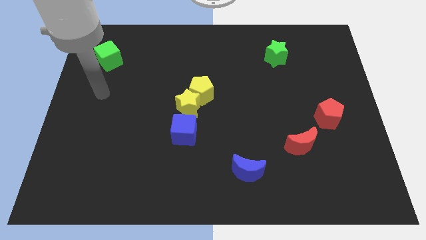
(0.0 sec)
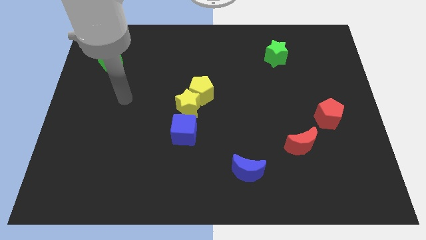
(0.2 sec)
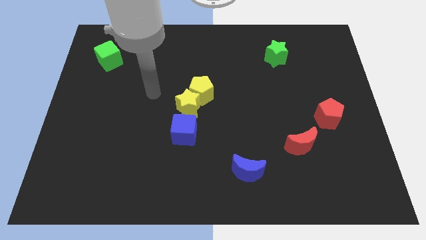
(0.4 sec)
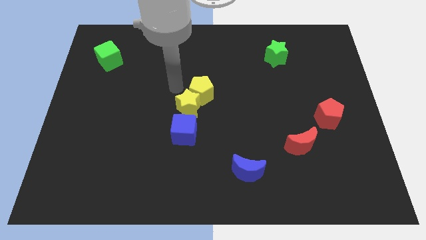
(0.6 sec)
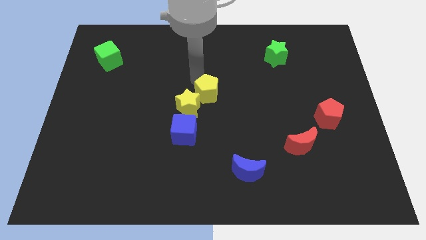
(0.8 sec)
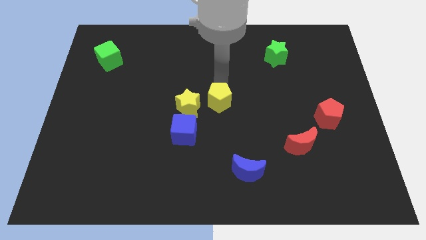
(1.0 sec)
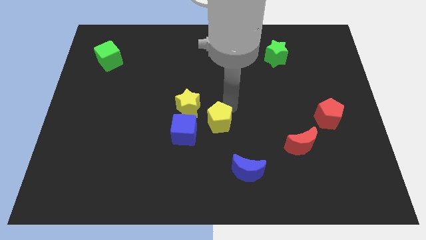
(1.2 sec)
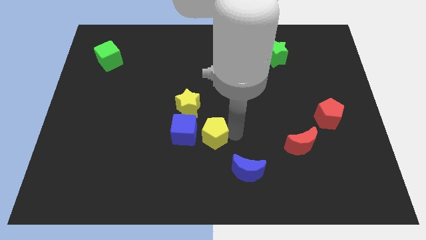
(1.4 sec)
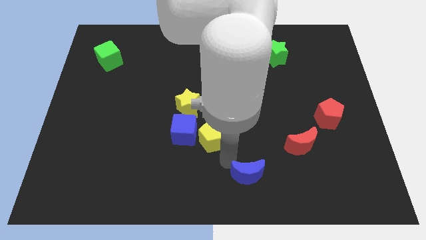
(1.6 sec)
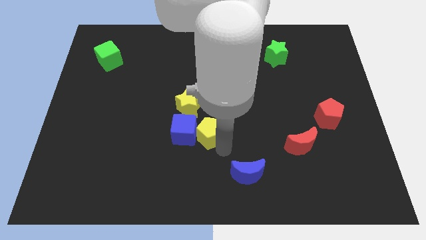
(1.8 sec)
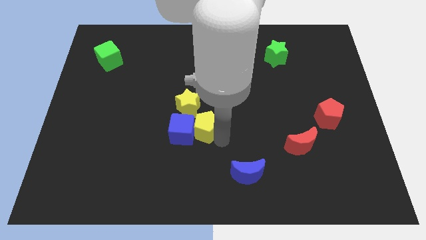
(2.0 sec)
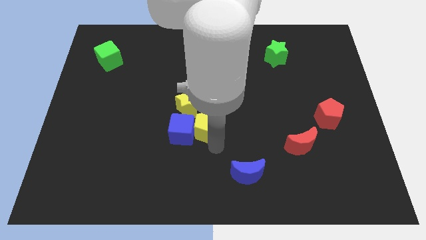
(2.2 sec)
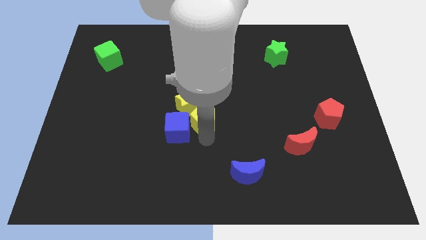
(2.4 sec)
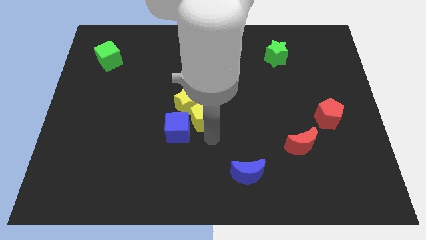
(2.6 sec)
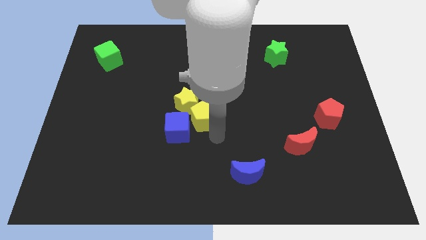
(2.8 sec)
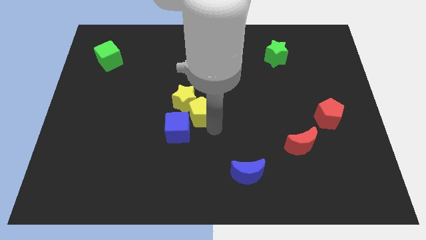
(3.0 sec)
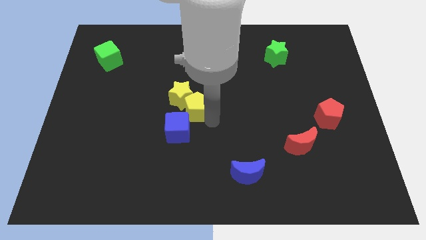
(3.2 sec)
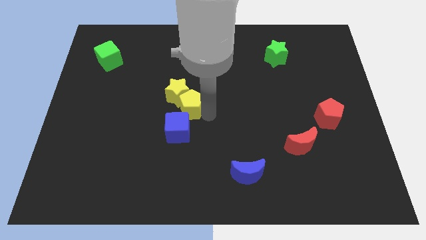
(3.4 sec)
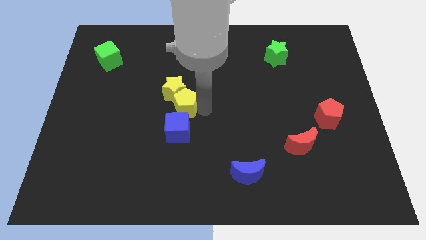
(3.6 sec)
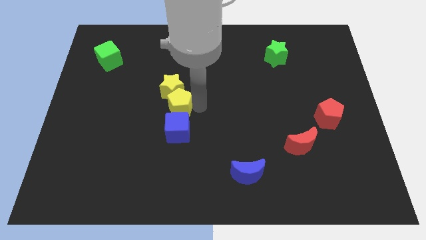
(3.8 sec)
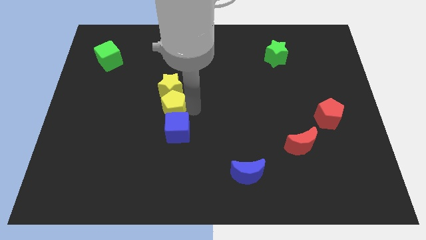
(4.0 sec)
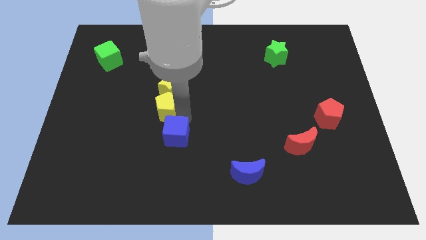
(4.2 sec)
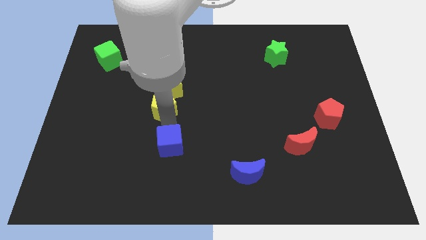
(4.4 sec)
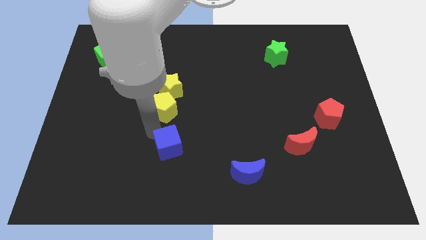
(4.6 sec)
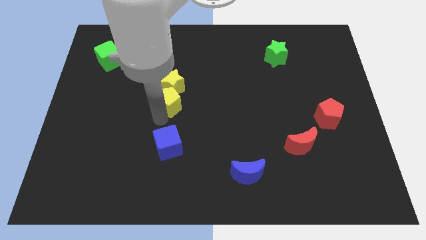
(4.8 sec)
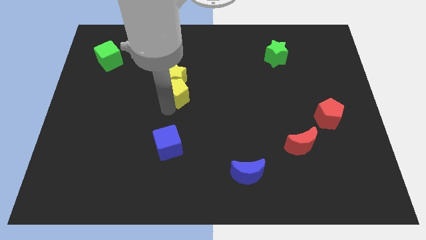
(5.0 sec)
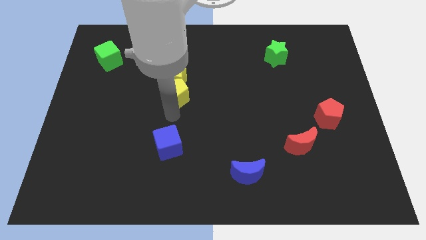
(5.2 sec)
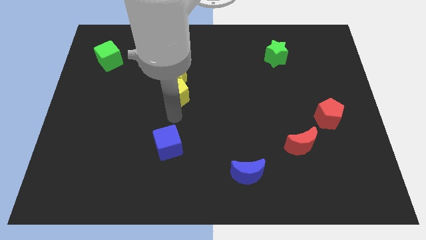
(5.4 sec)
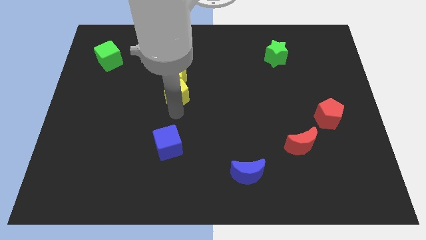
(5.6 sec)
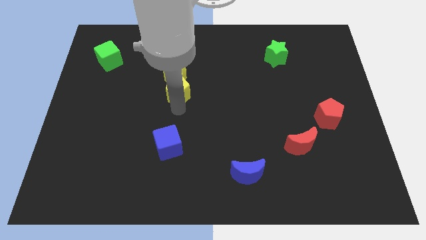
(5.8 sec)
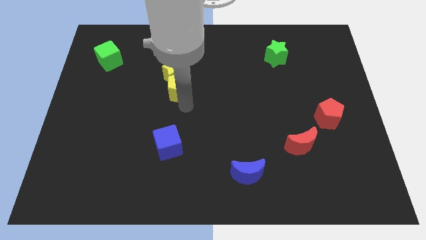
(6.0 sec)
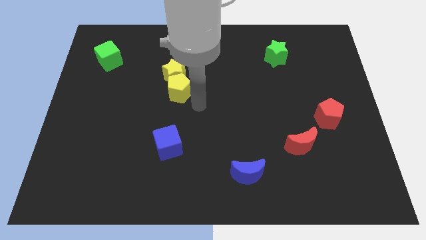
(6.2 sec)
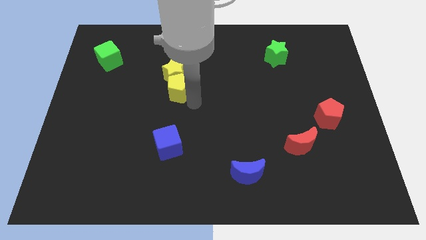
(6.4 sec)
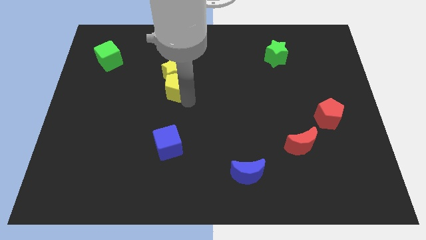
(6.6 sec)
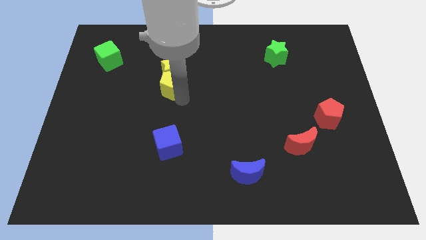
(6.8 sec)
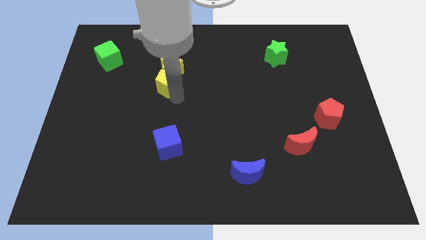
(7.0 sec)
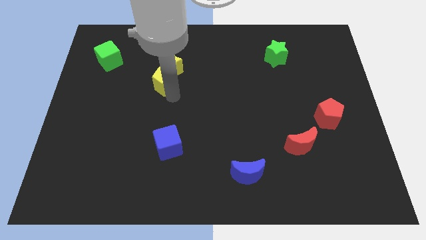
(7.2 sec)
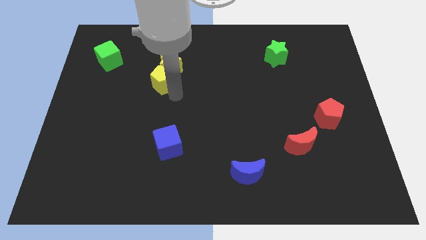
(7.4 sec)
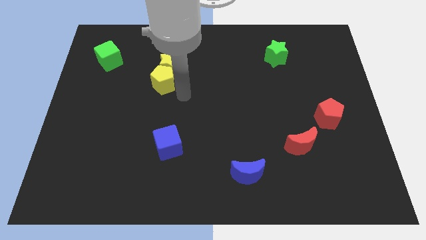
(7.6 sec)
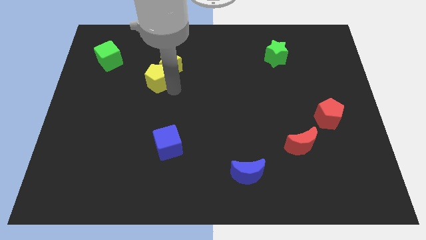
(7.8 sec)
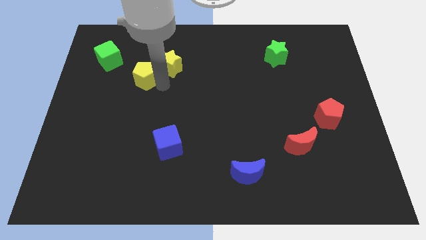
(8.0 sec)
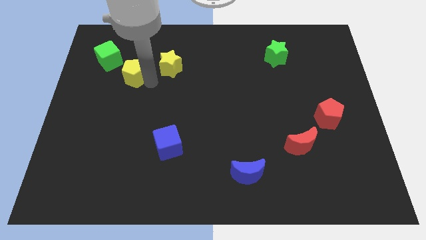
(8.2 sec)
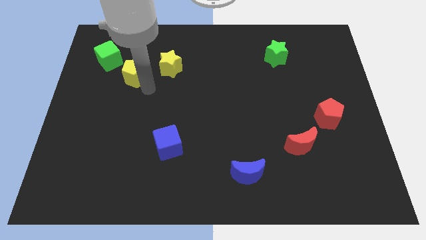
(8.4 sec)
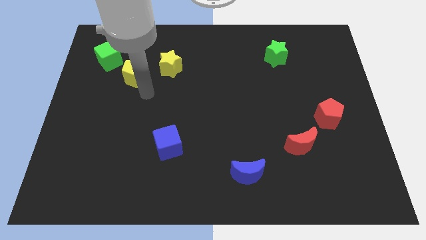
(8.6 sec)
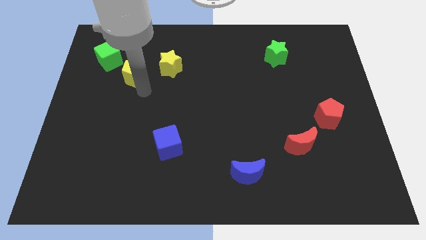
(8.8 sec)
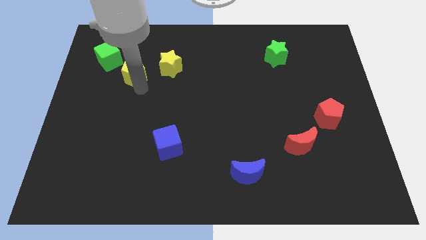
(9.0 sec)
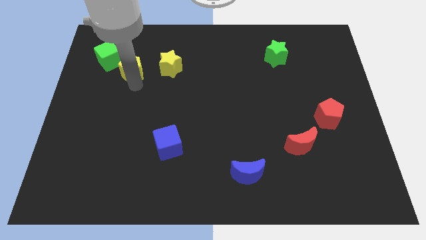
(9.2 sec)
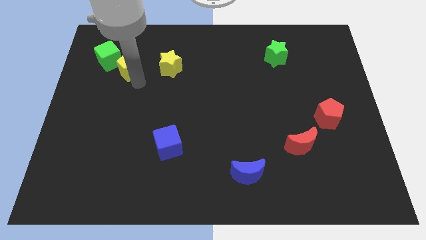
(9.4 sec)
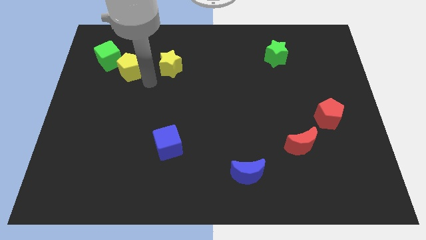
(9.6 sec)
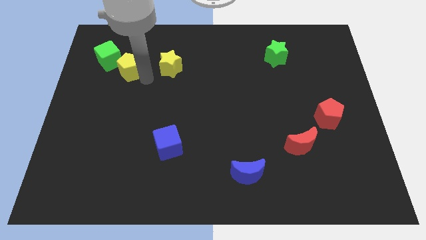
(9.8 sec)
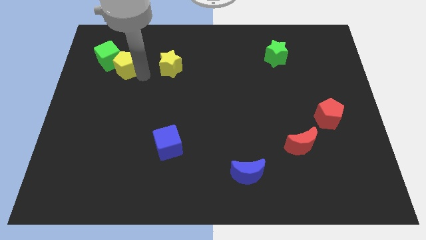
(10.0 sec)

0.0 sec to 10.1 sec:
slide the yellow pentagon close to the green cube

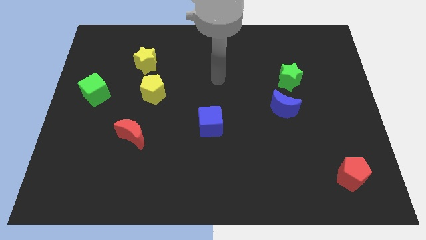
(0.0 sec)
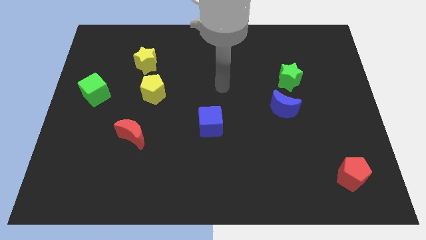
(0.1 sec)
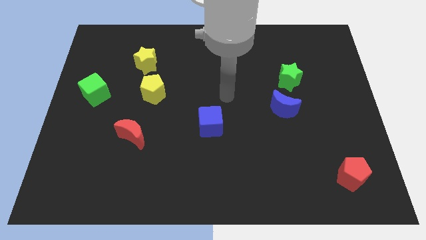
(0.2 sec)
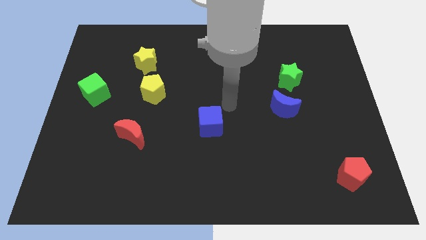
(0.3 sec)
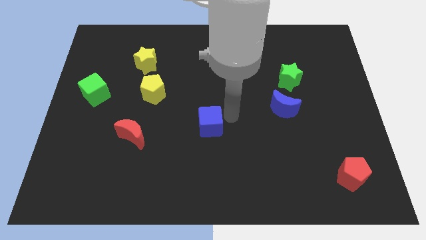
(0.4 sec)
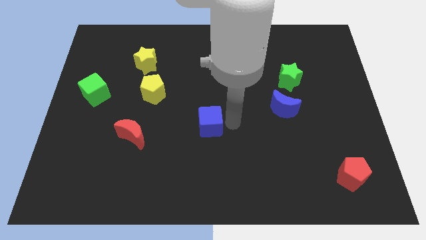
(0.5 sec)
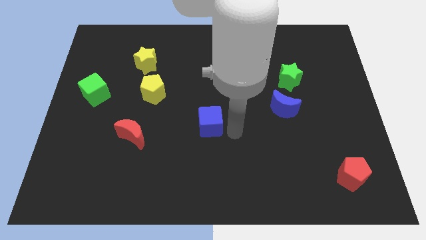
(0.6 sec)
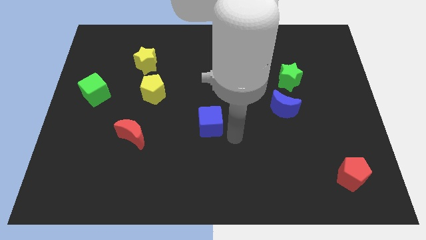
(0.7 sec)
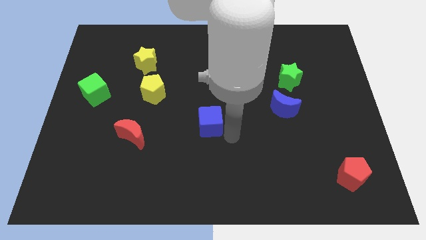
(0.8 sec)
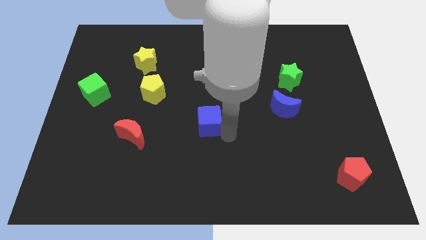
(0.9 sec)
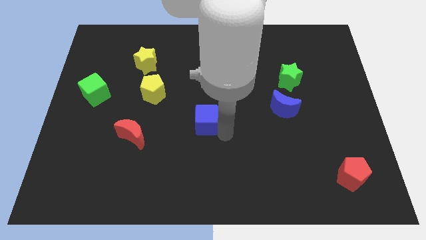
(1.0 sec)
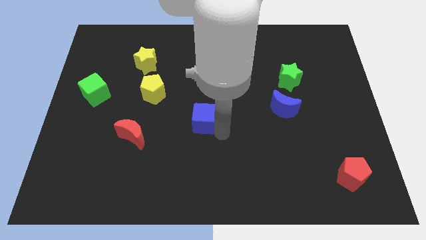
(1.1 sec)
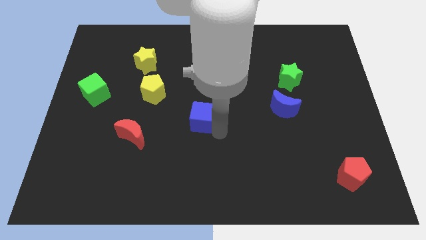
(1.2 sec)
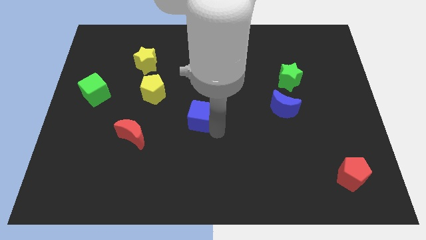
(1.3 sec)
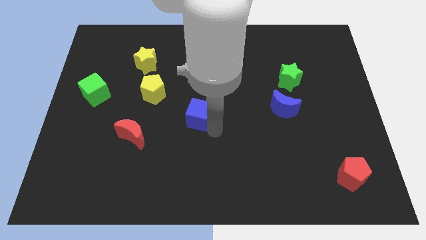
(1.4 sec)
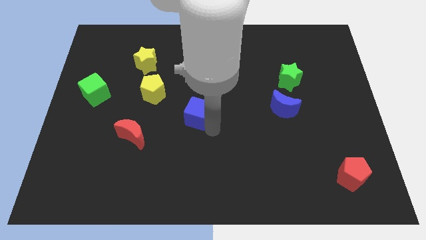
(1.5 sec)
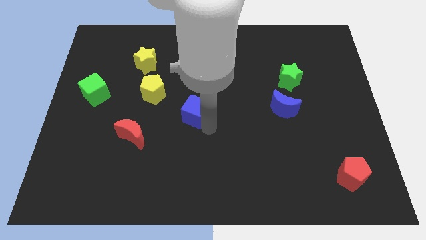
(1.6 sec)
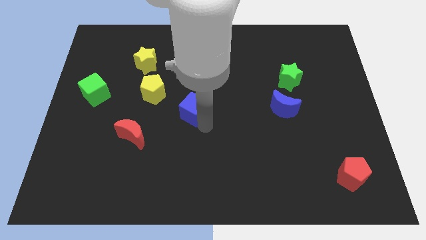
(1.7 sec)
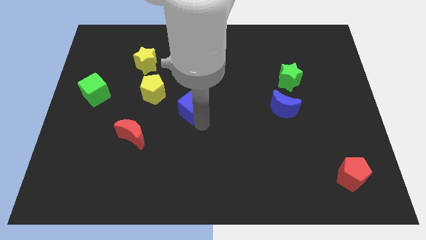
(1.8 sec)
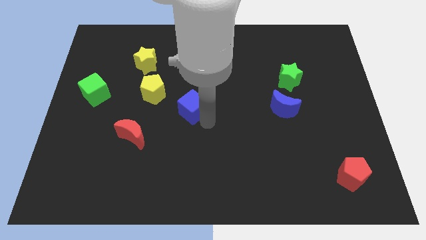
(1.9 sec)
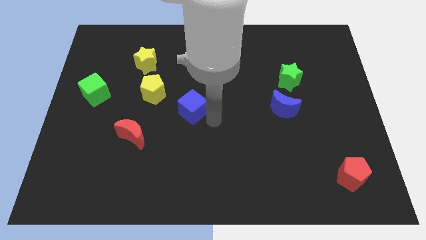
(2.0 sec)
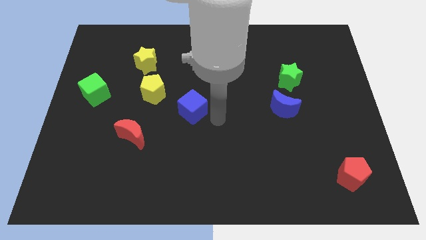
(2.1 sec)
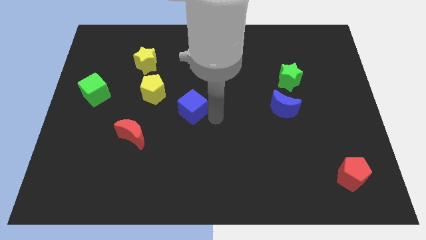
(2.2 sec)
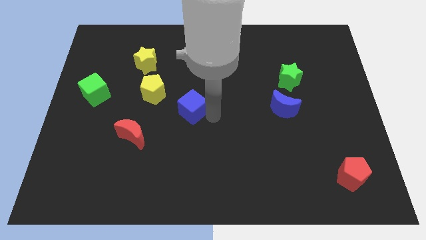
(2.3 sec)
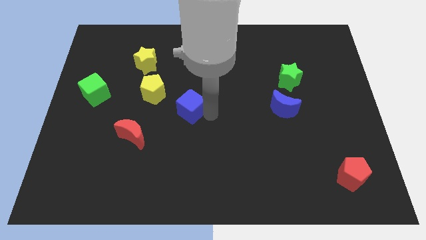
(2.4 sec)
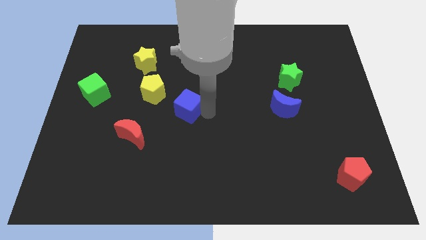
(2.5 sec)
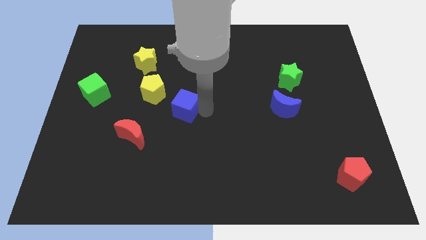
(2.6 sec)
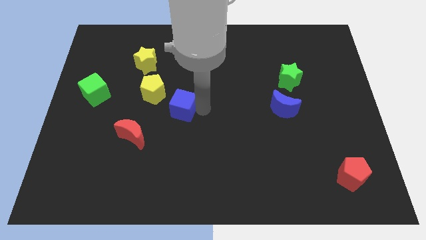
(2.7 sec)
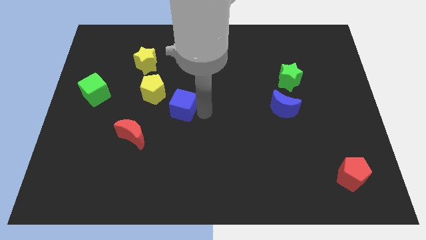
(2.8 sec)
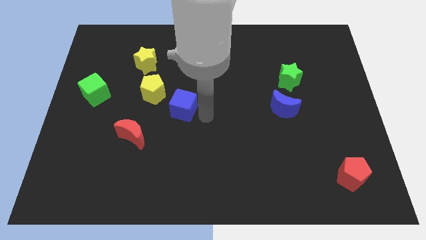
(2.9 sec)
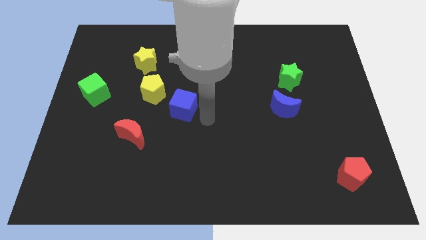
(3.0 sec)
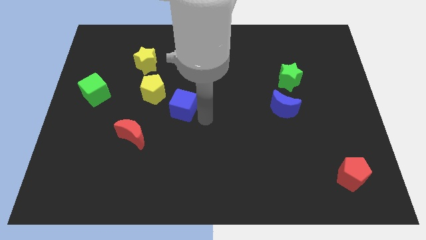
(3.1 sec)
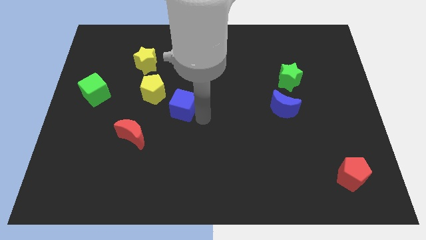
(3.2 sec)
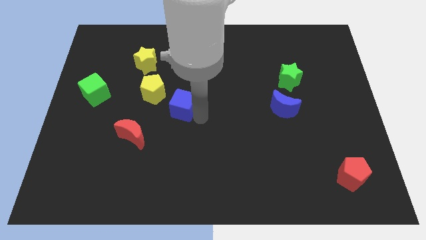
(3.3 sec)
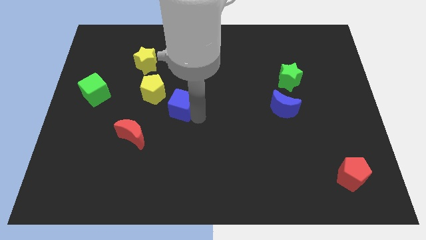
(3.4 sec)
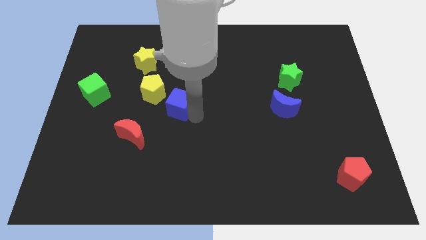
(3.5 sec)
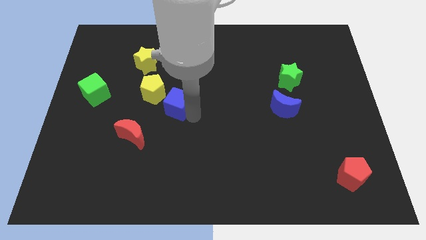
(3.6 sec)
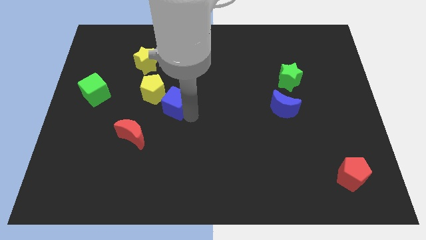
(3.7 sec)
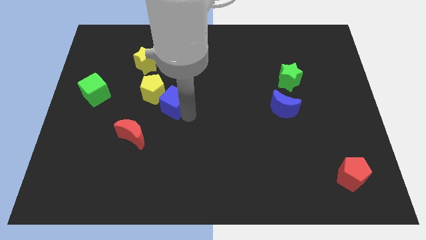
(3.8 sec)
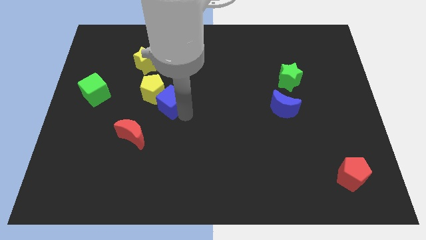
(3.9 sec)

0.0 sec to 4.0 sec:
move the blue cube next to the yellow pentagon
